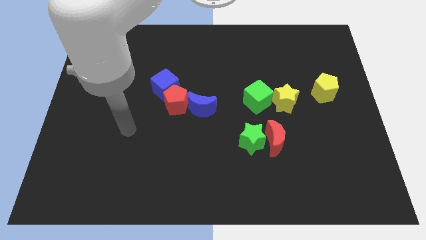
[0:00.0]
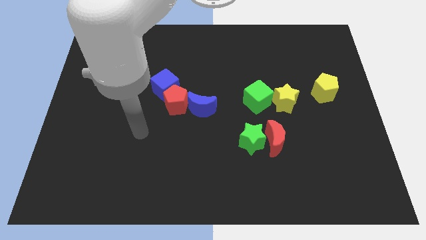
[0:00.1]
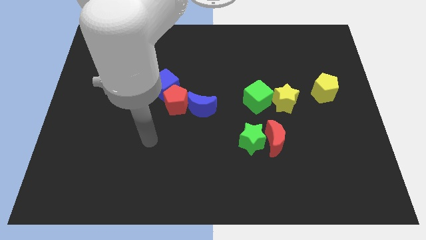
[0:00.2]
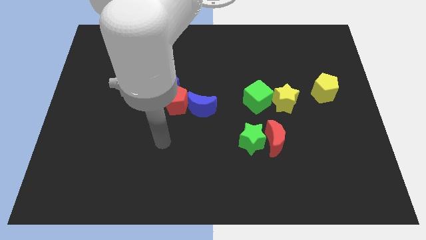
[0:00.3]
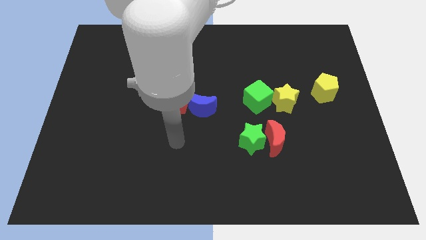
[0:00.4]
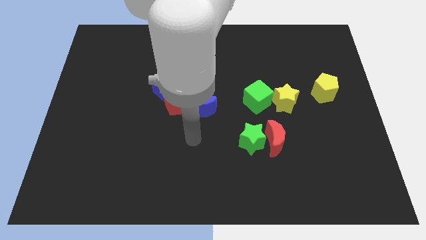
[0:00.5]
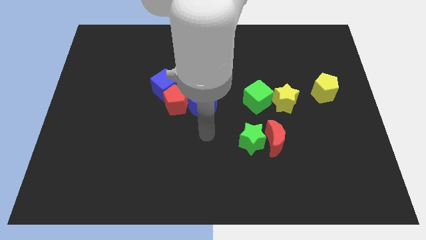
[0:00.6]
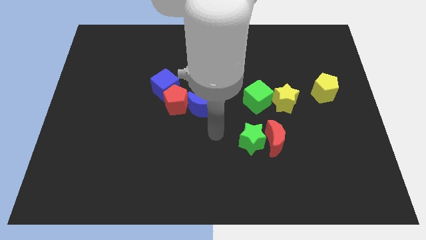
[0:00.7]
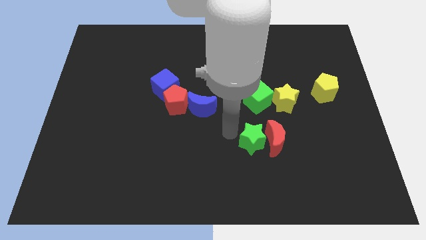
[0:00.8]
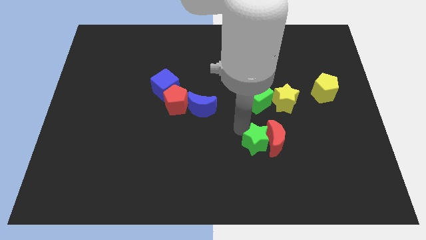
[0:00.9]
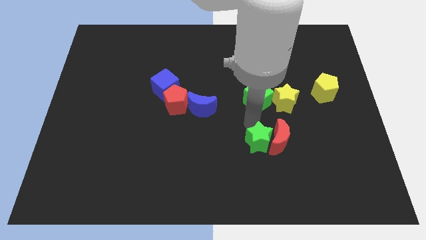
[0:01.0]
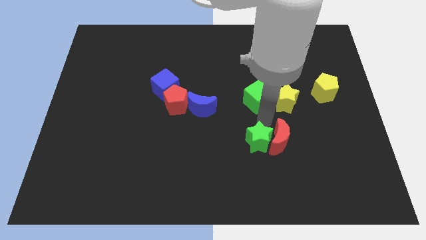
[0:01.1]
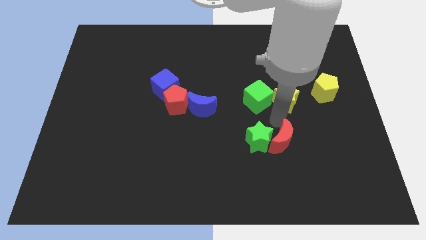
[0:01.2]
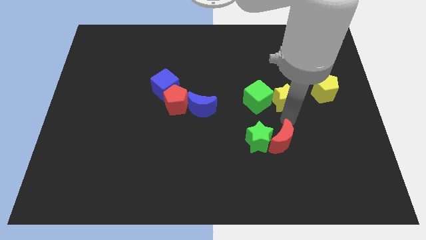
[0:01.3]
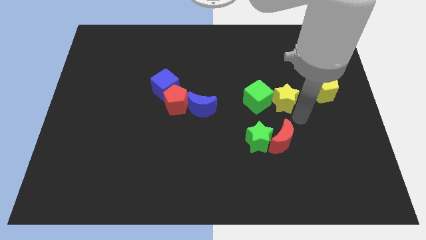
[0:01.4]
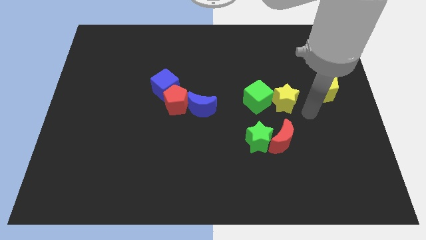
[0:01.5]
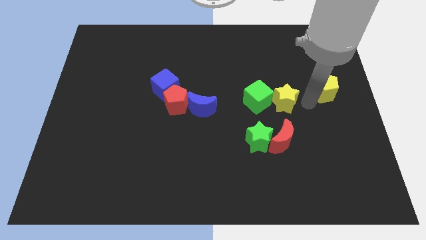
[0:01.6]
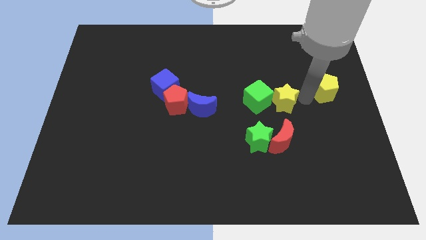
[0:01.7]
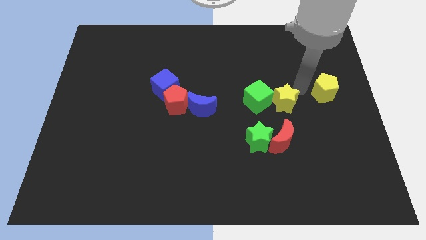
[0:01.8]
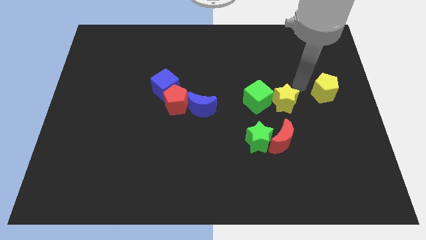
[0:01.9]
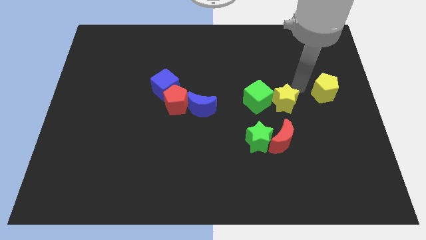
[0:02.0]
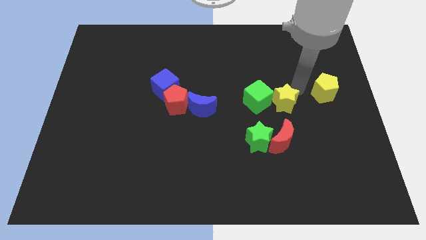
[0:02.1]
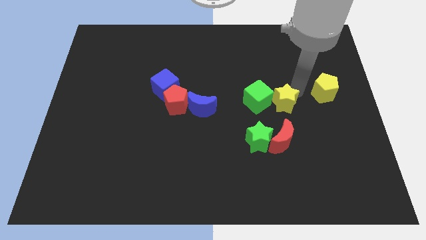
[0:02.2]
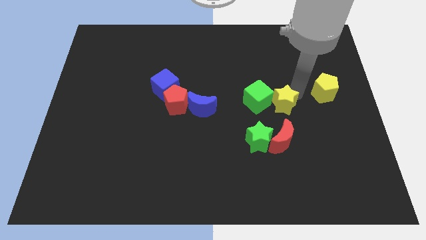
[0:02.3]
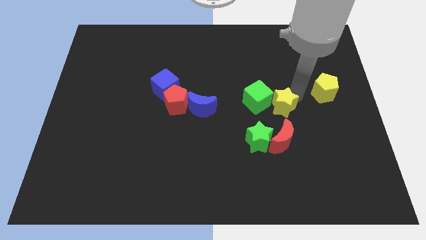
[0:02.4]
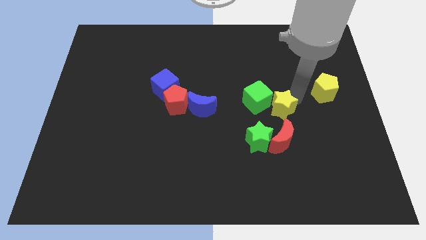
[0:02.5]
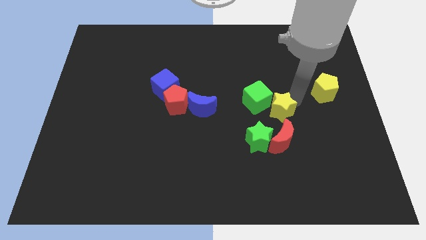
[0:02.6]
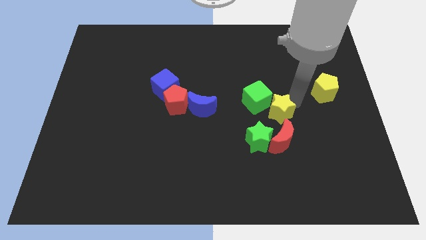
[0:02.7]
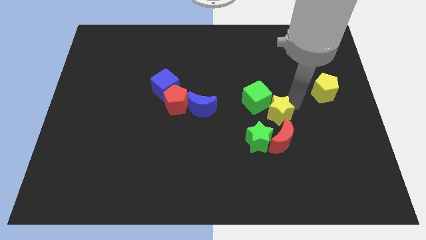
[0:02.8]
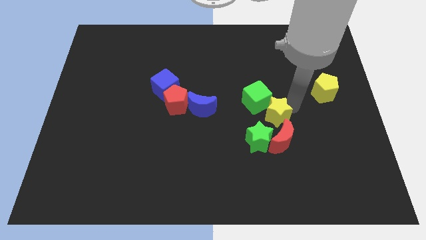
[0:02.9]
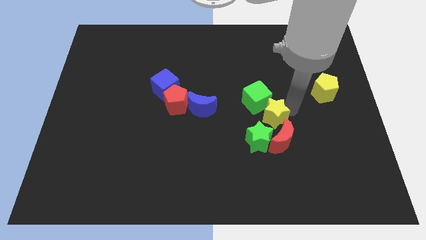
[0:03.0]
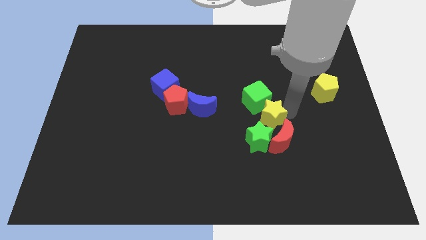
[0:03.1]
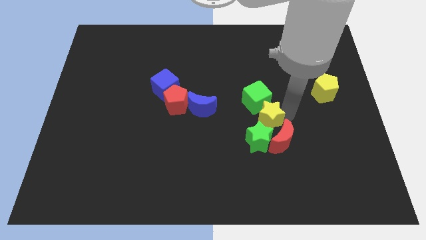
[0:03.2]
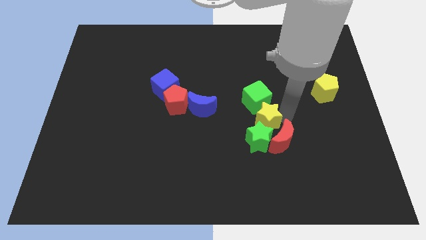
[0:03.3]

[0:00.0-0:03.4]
push the yellow star down and then to the left a little

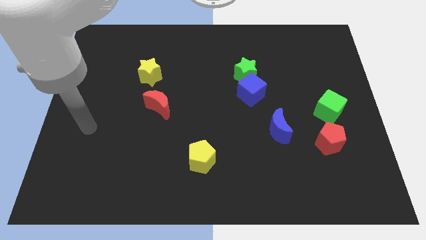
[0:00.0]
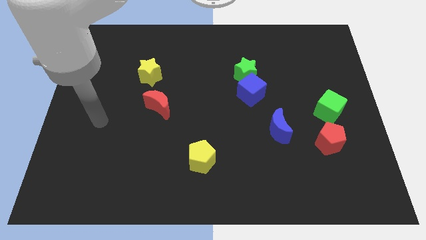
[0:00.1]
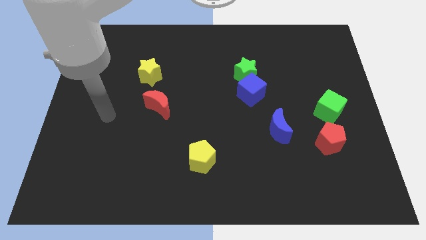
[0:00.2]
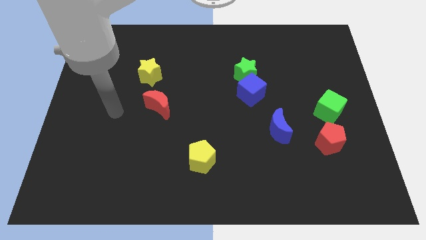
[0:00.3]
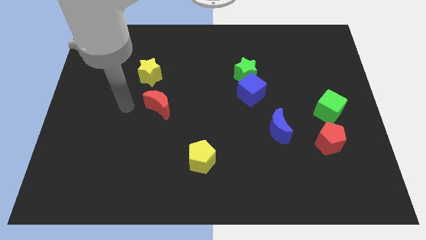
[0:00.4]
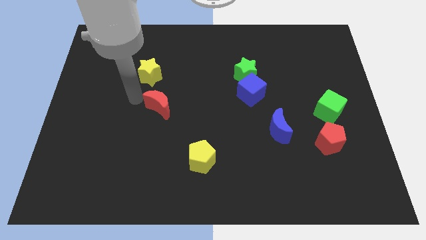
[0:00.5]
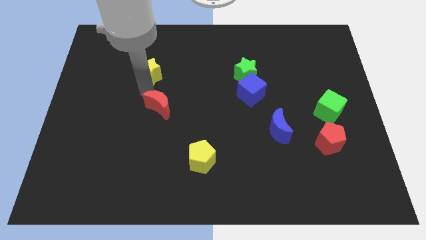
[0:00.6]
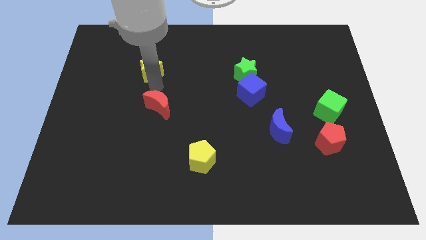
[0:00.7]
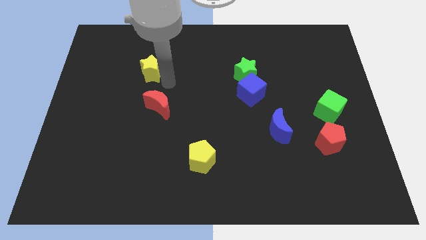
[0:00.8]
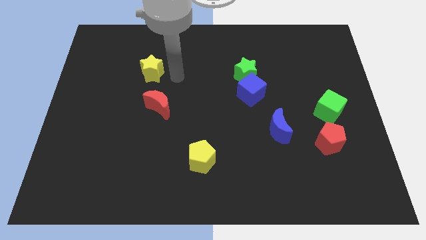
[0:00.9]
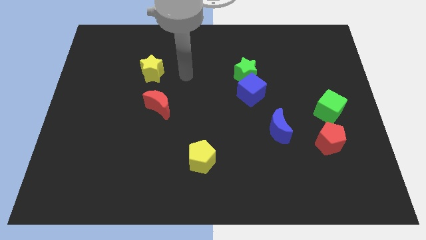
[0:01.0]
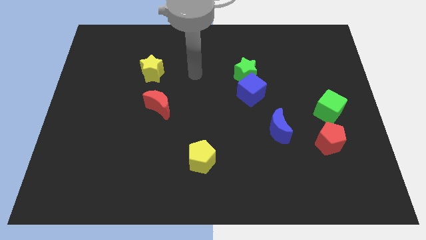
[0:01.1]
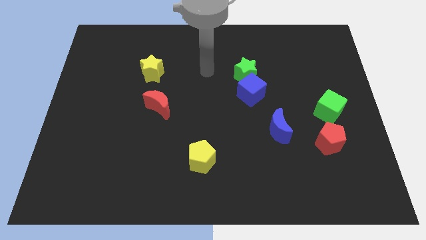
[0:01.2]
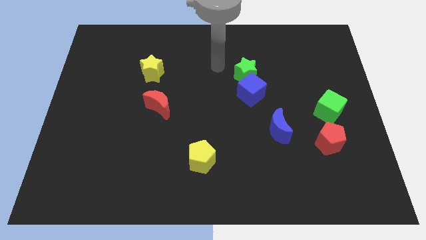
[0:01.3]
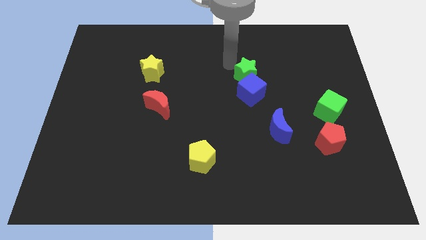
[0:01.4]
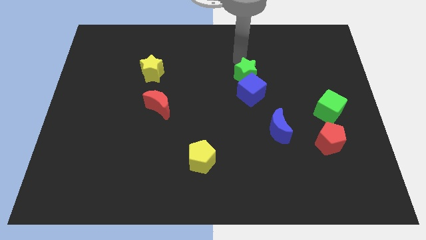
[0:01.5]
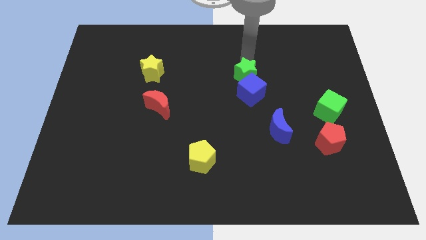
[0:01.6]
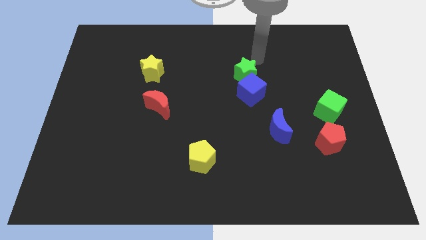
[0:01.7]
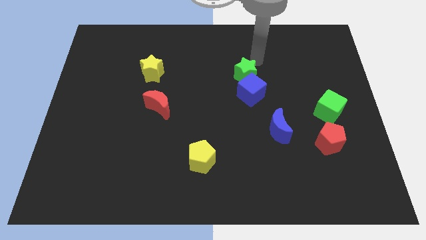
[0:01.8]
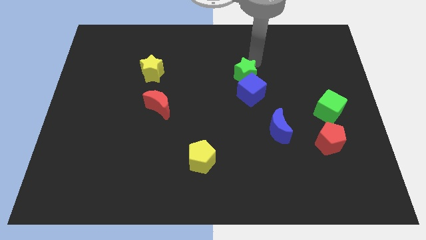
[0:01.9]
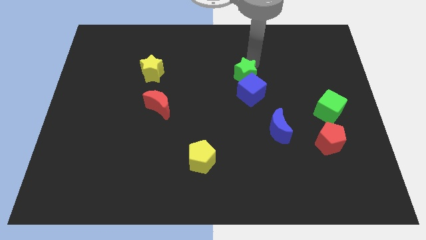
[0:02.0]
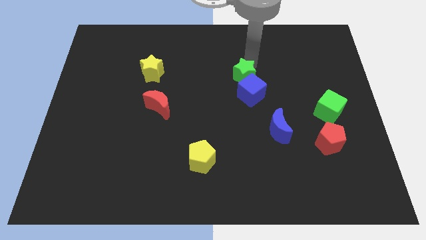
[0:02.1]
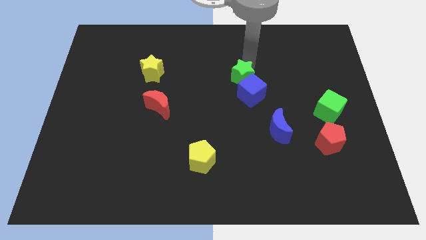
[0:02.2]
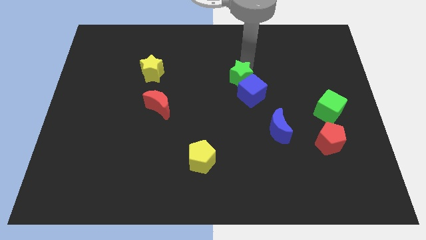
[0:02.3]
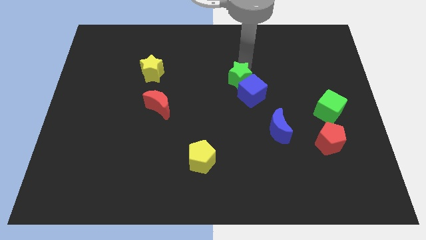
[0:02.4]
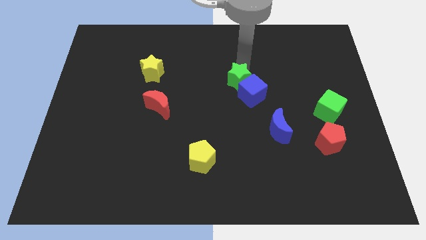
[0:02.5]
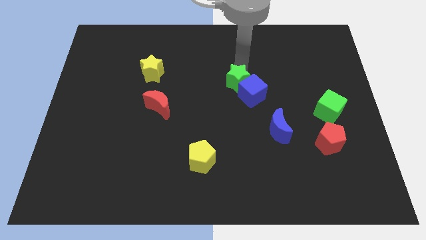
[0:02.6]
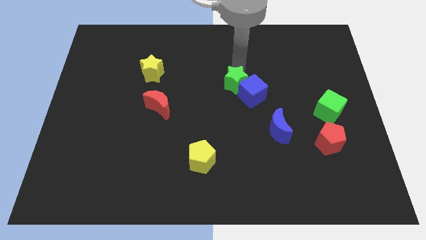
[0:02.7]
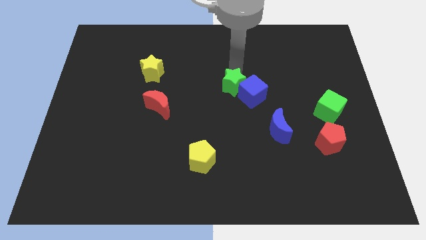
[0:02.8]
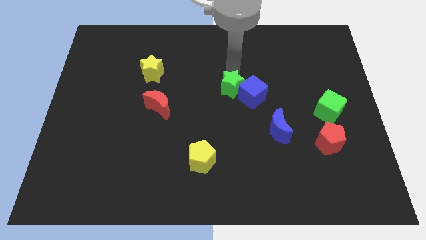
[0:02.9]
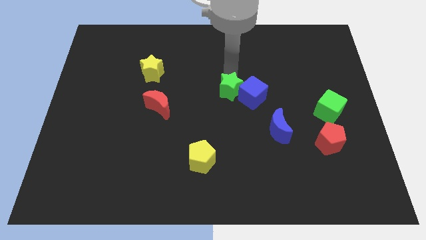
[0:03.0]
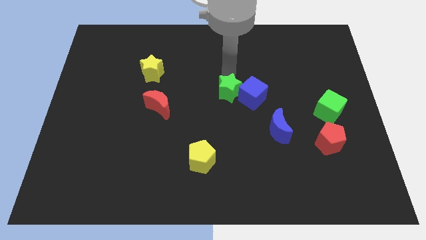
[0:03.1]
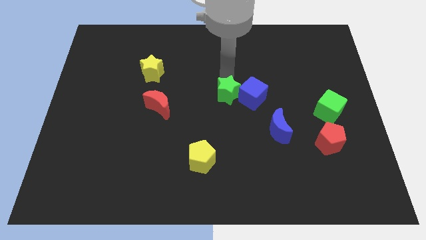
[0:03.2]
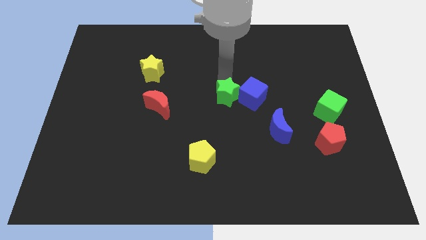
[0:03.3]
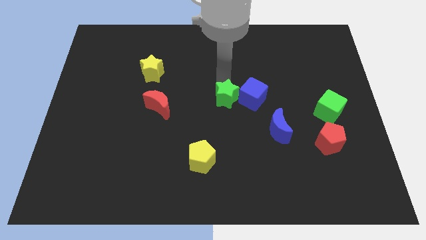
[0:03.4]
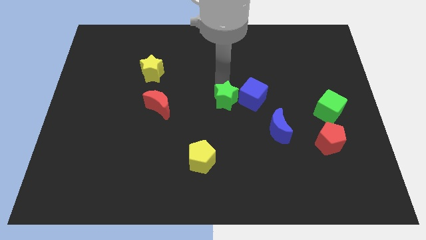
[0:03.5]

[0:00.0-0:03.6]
push the green star a bit downwards

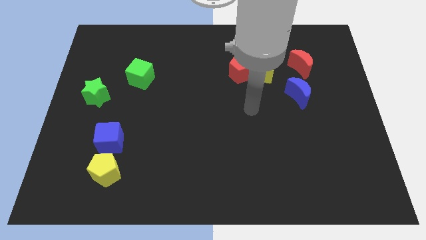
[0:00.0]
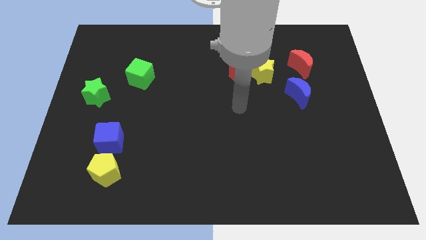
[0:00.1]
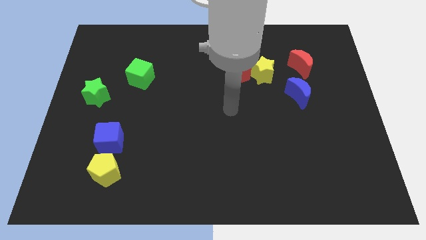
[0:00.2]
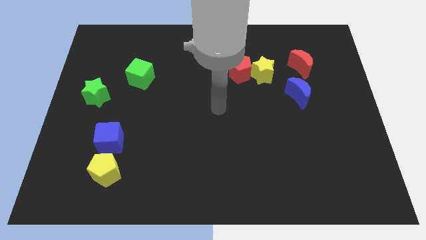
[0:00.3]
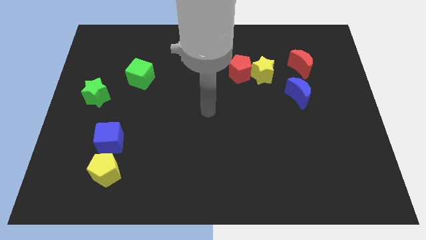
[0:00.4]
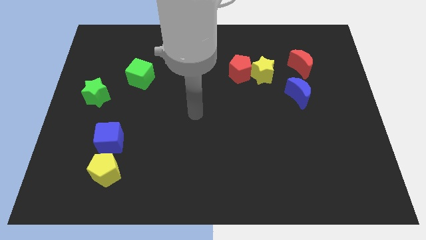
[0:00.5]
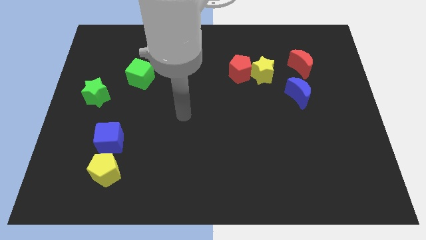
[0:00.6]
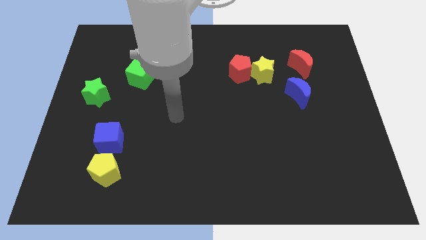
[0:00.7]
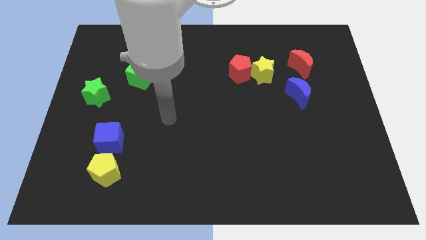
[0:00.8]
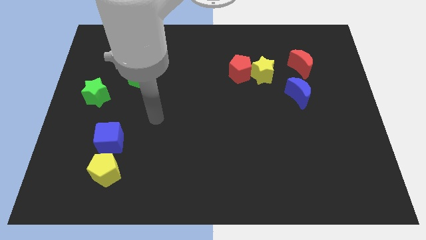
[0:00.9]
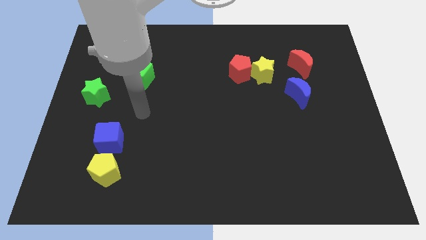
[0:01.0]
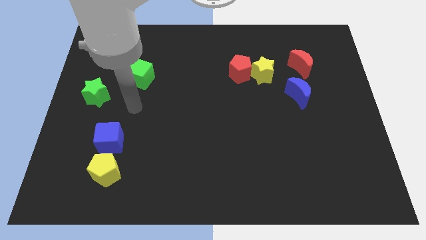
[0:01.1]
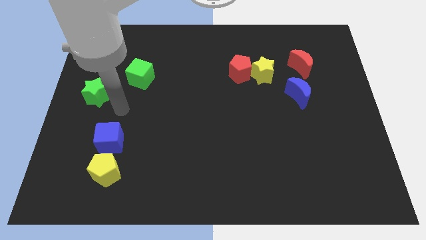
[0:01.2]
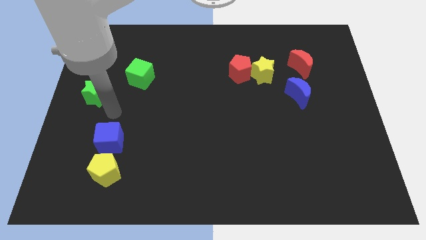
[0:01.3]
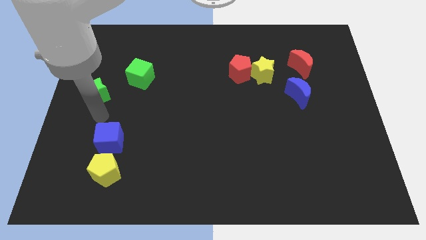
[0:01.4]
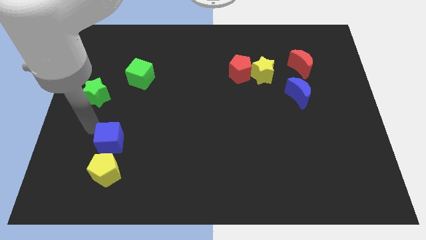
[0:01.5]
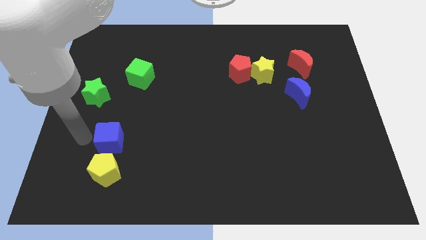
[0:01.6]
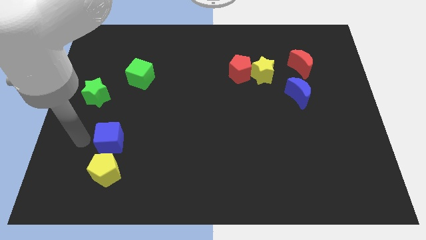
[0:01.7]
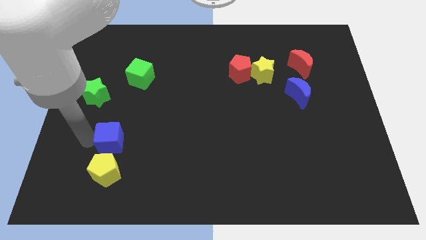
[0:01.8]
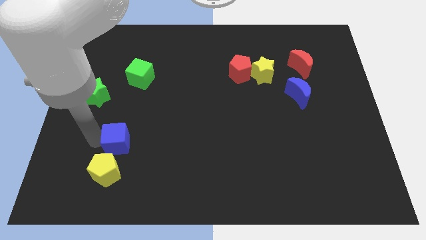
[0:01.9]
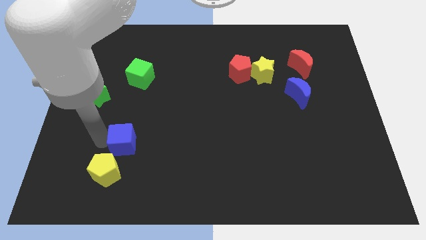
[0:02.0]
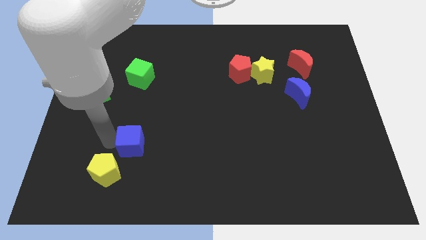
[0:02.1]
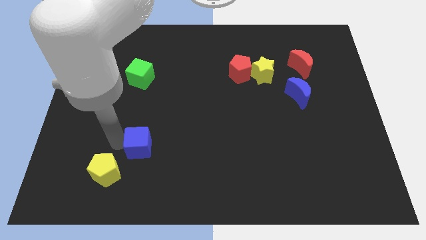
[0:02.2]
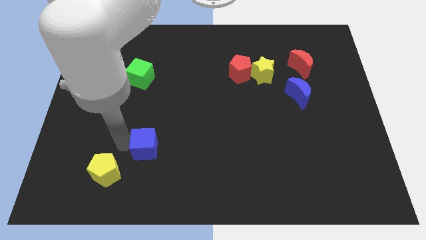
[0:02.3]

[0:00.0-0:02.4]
slightly move the blue cube right
